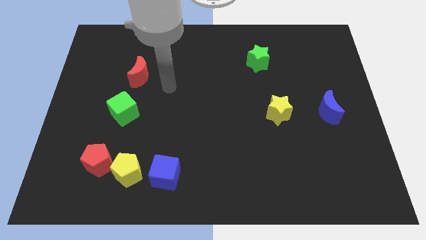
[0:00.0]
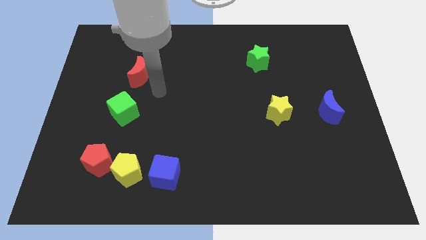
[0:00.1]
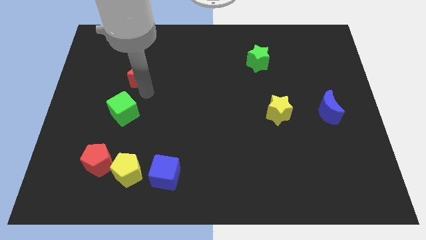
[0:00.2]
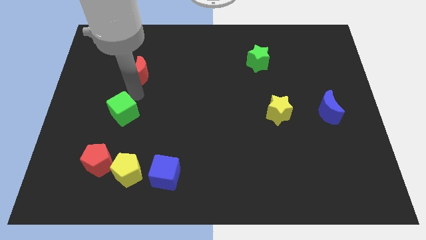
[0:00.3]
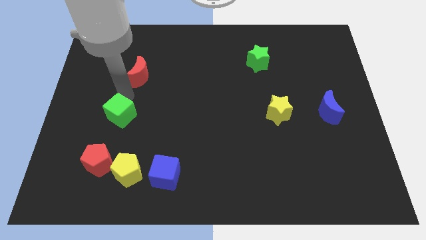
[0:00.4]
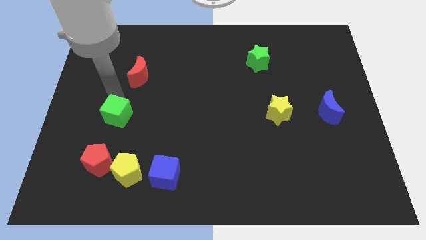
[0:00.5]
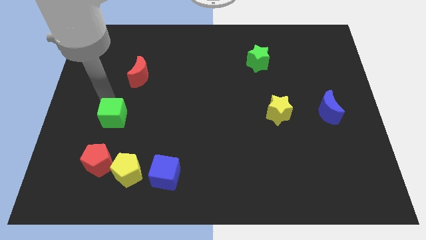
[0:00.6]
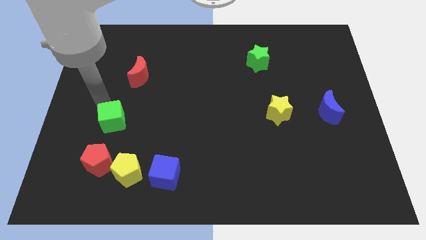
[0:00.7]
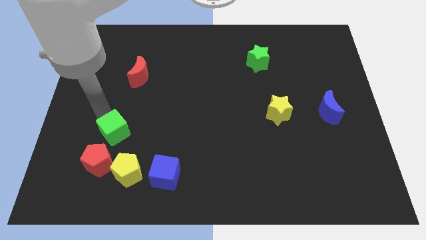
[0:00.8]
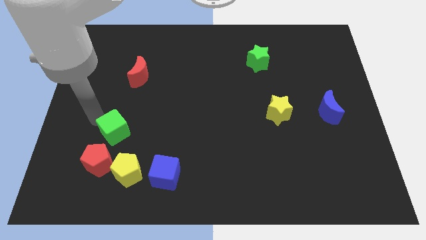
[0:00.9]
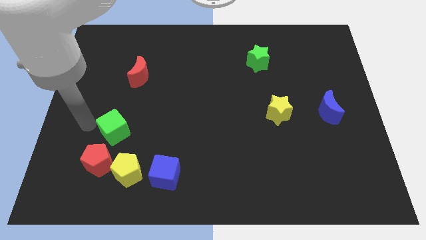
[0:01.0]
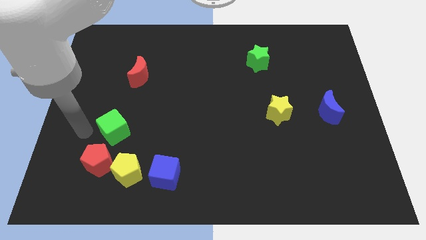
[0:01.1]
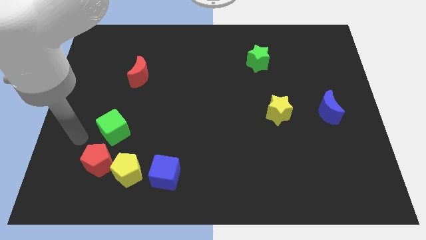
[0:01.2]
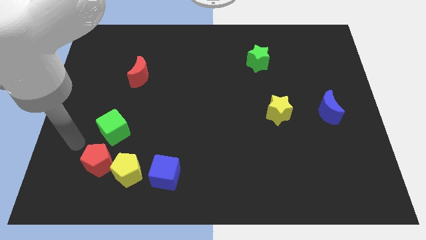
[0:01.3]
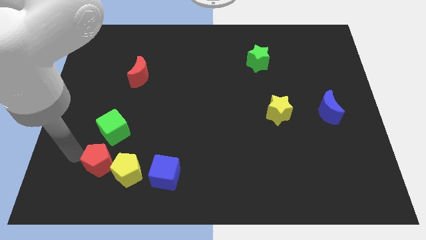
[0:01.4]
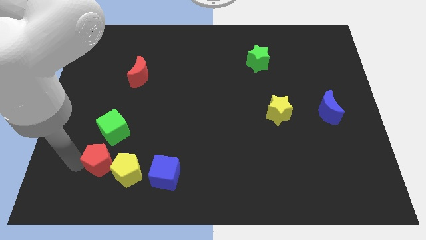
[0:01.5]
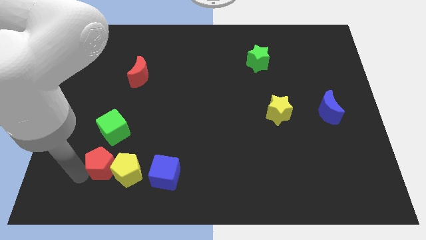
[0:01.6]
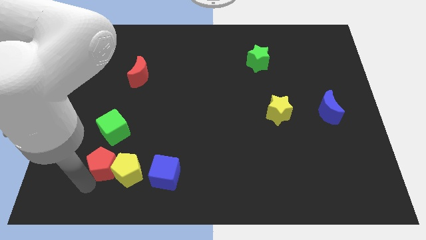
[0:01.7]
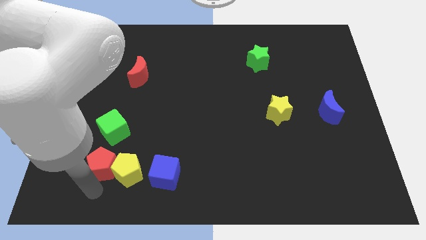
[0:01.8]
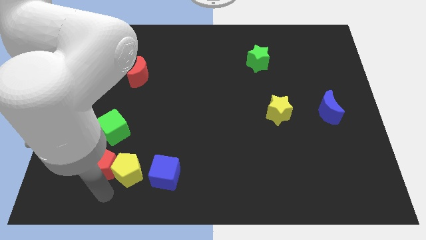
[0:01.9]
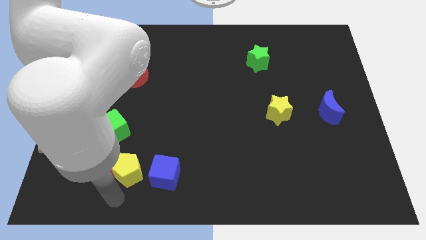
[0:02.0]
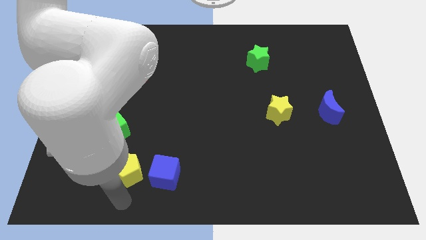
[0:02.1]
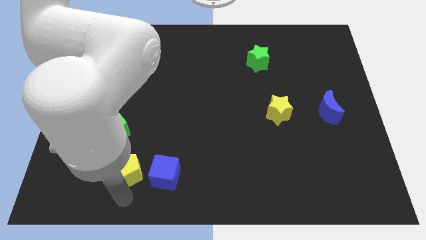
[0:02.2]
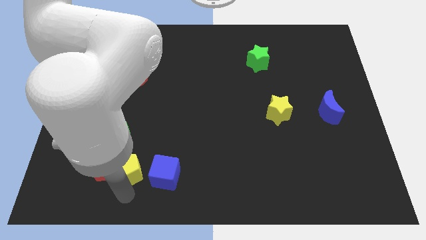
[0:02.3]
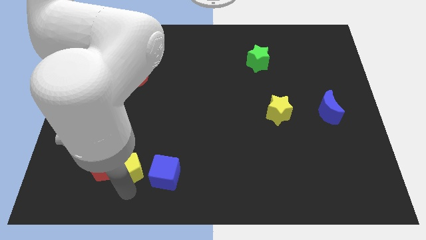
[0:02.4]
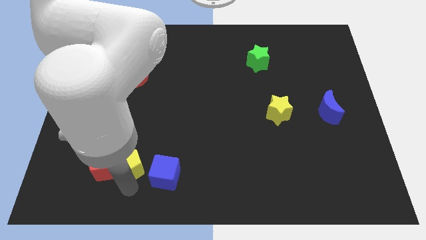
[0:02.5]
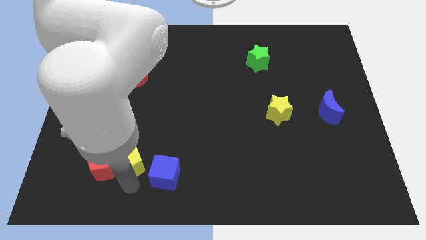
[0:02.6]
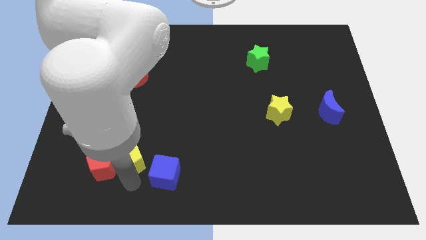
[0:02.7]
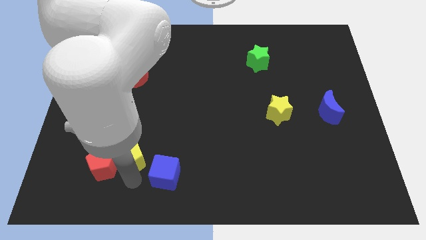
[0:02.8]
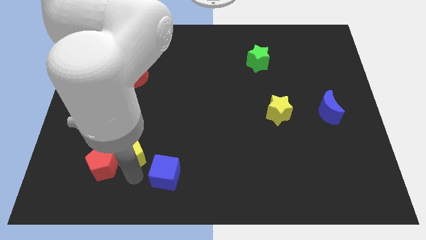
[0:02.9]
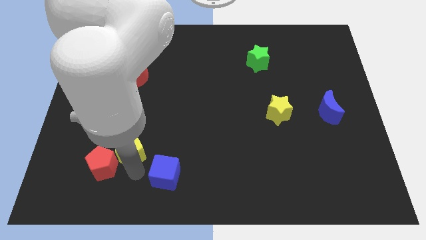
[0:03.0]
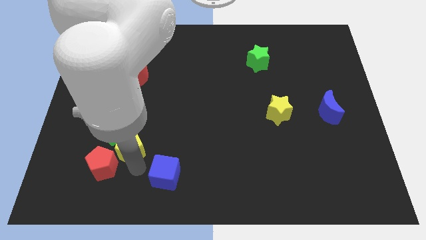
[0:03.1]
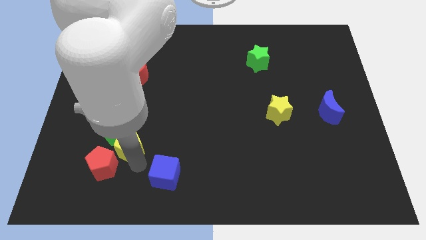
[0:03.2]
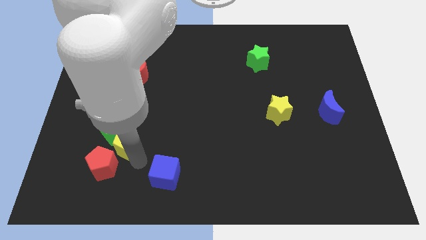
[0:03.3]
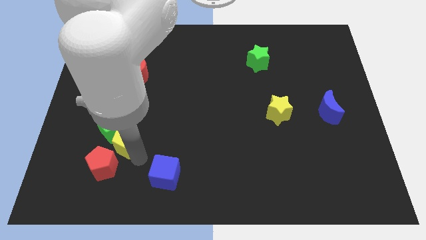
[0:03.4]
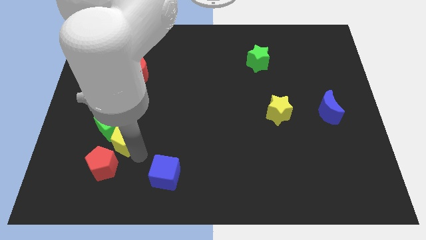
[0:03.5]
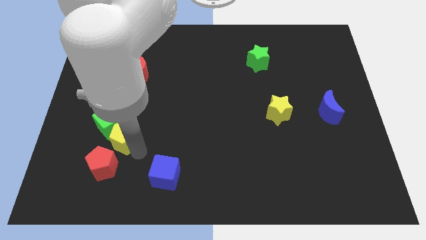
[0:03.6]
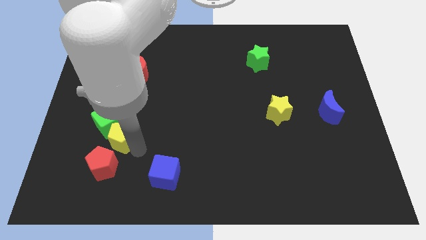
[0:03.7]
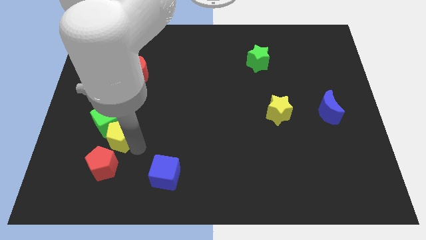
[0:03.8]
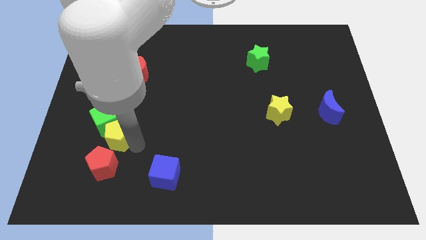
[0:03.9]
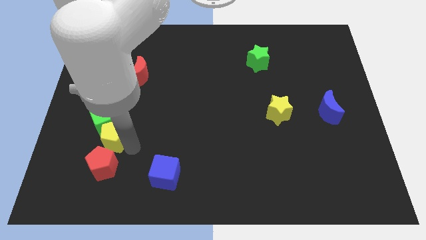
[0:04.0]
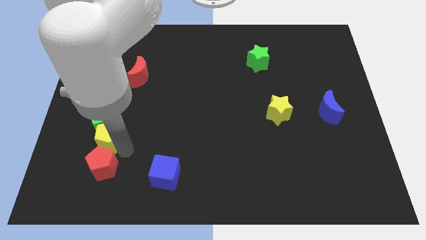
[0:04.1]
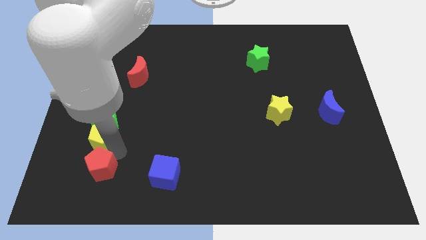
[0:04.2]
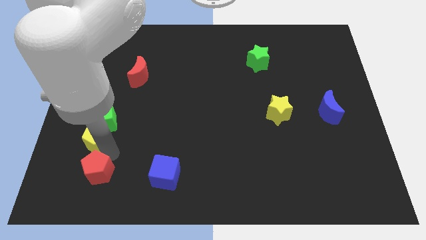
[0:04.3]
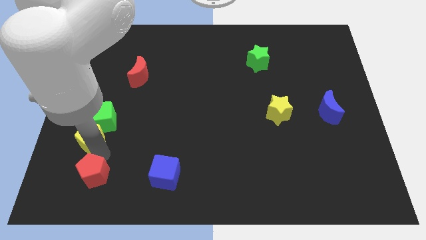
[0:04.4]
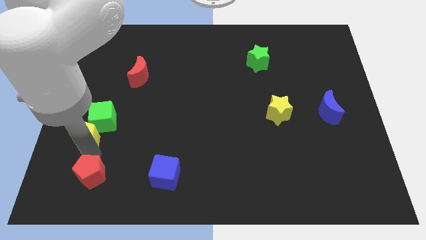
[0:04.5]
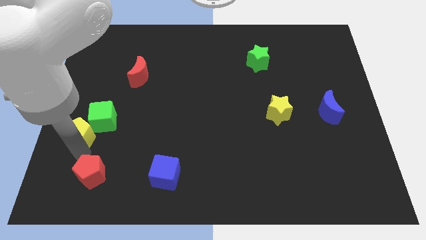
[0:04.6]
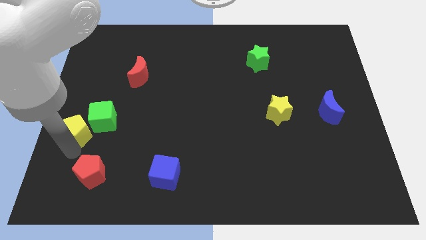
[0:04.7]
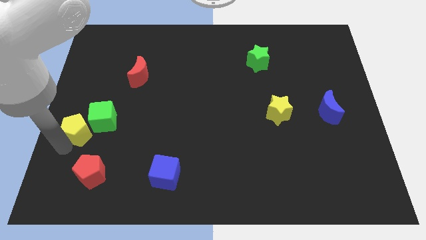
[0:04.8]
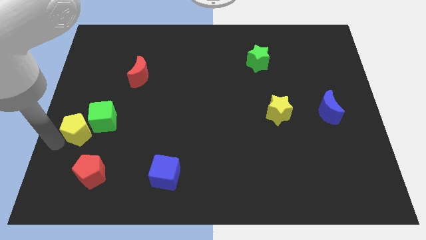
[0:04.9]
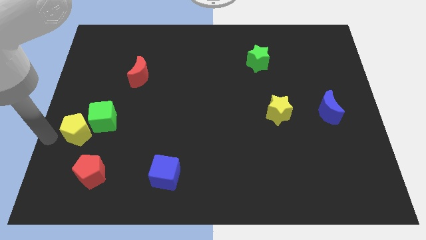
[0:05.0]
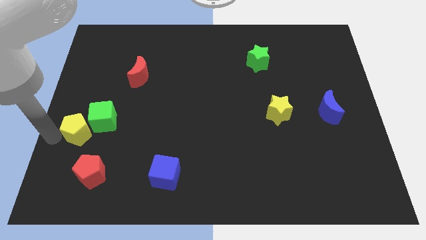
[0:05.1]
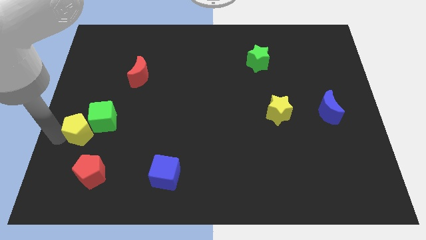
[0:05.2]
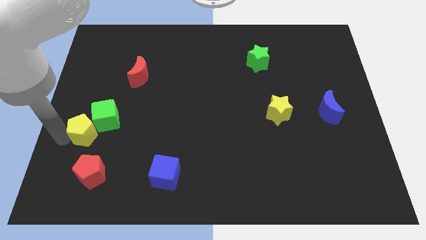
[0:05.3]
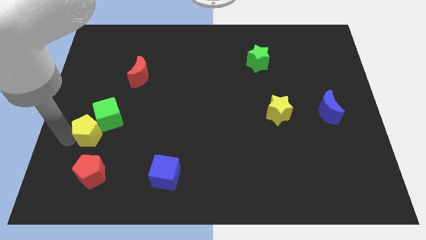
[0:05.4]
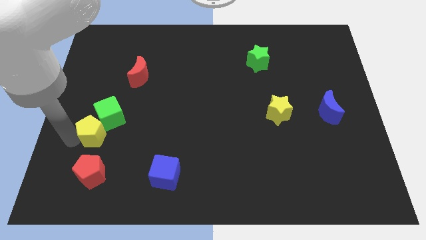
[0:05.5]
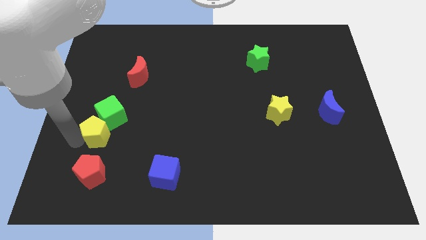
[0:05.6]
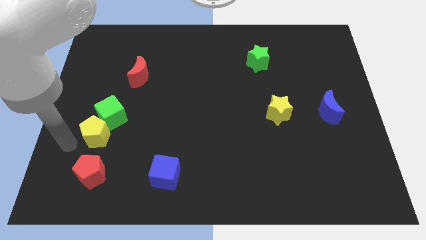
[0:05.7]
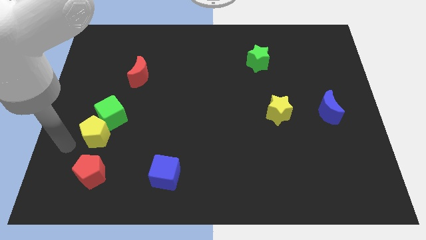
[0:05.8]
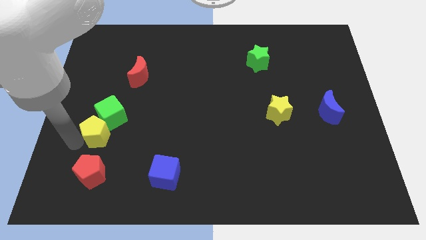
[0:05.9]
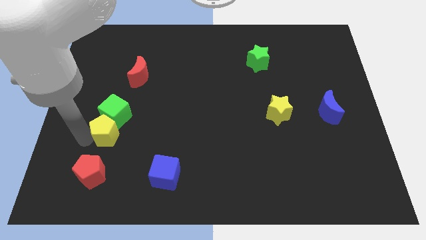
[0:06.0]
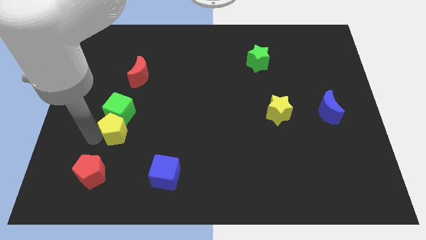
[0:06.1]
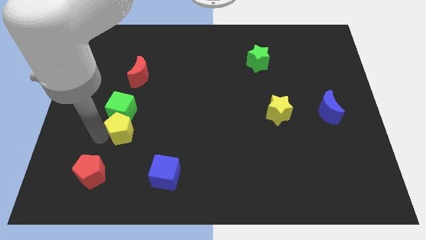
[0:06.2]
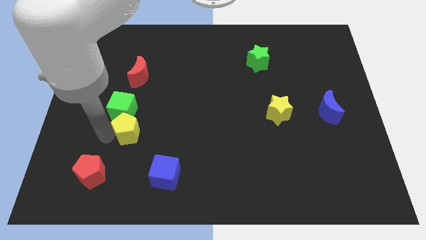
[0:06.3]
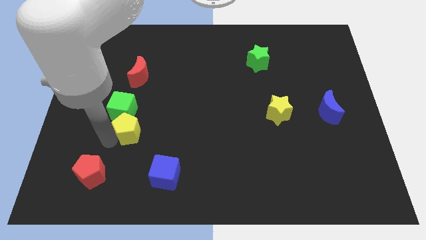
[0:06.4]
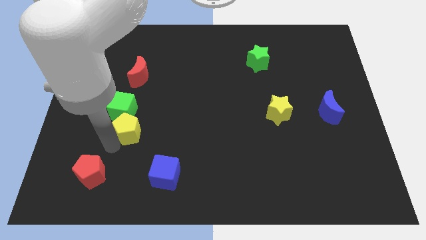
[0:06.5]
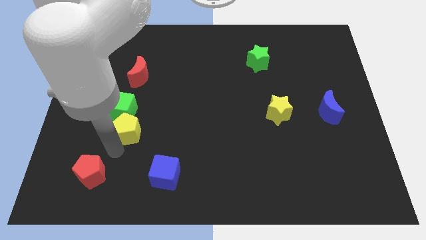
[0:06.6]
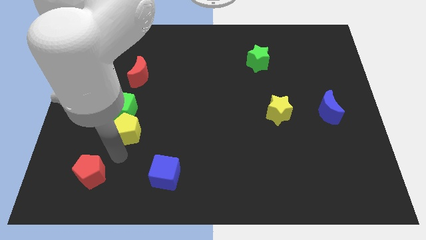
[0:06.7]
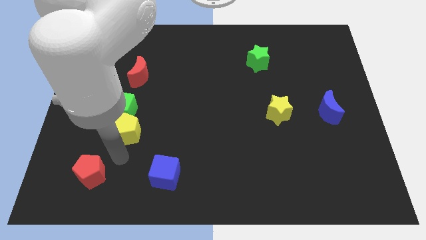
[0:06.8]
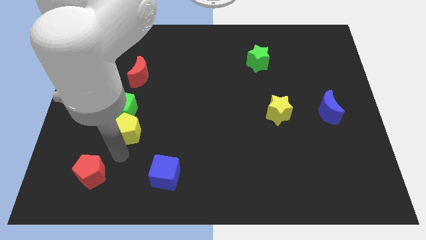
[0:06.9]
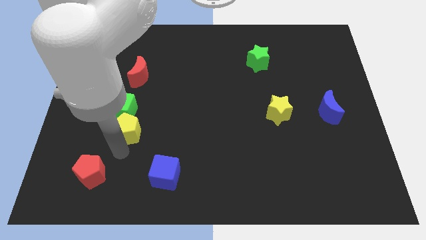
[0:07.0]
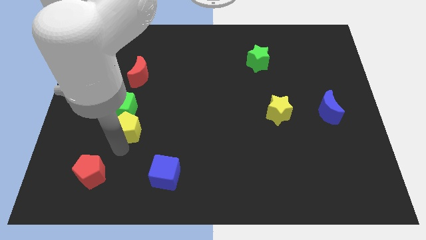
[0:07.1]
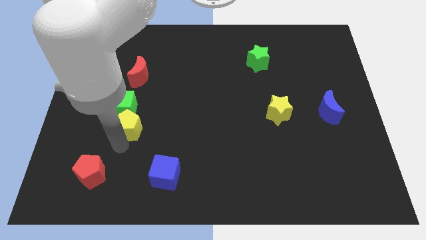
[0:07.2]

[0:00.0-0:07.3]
move the yellow pentagon to the bottom of the red moon
